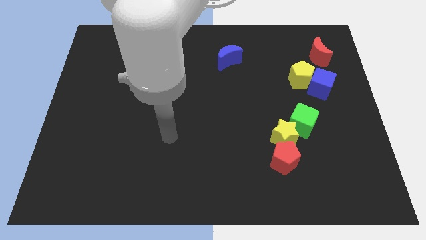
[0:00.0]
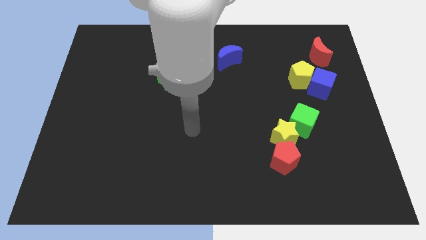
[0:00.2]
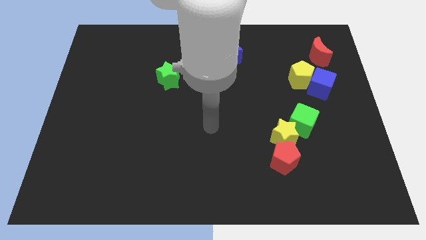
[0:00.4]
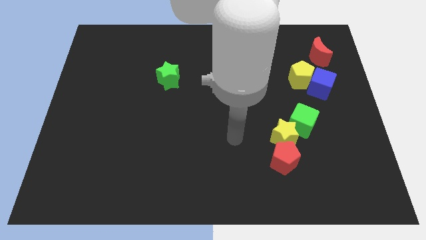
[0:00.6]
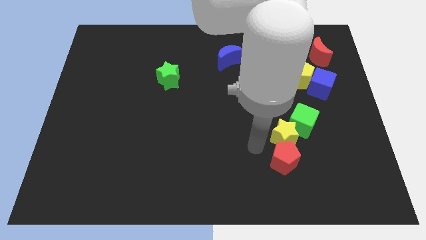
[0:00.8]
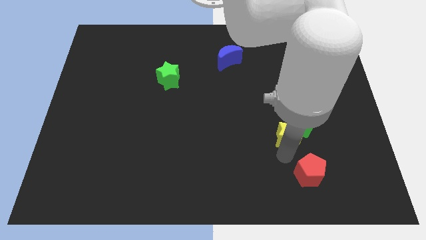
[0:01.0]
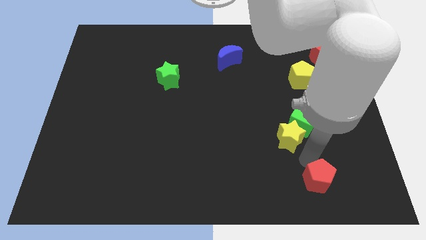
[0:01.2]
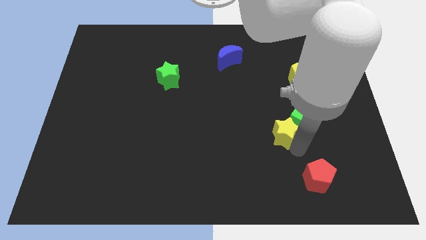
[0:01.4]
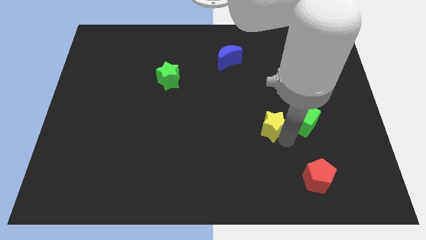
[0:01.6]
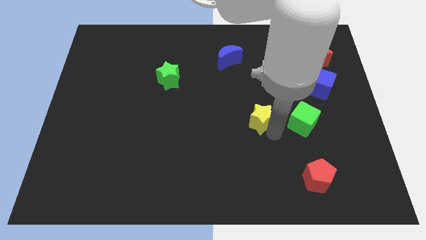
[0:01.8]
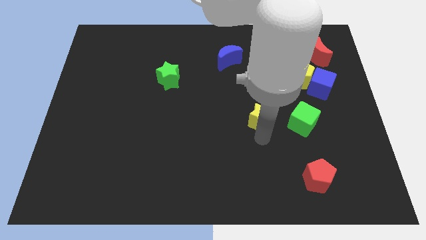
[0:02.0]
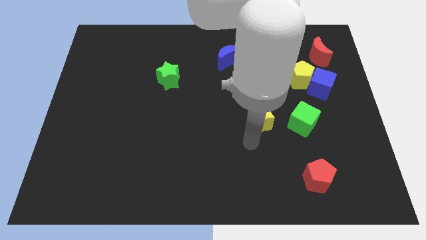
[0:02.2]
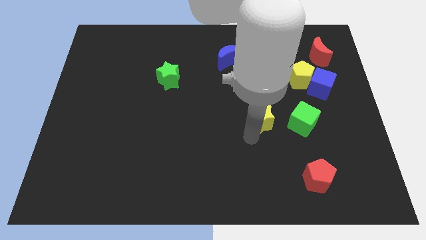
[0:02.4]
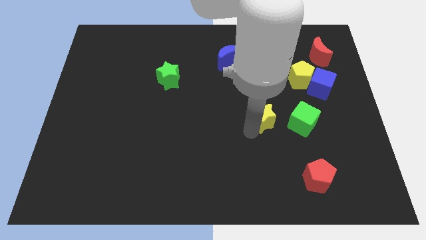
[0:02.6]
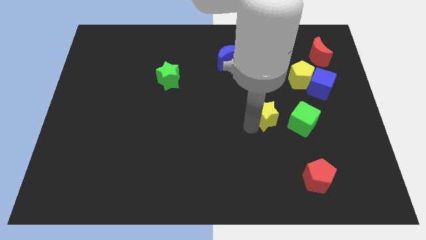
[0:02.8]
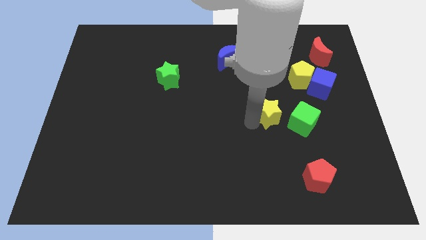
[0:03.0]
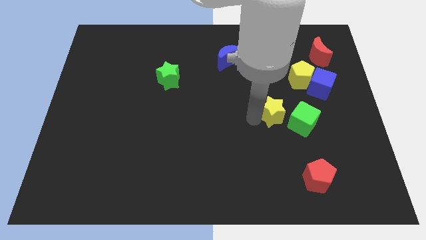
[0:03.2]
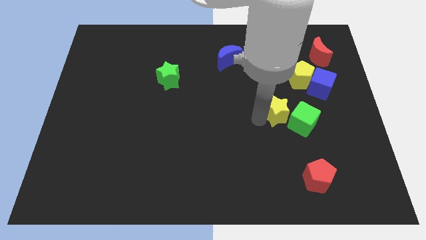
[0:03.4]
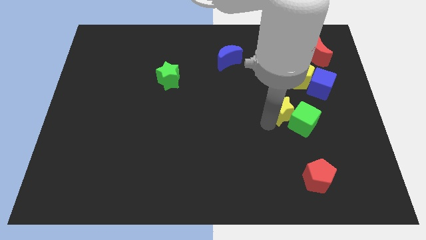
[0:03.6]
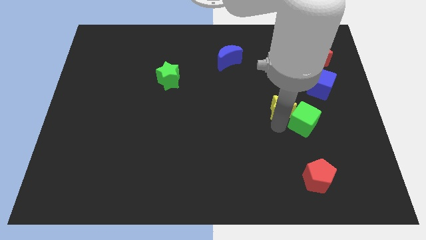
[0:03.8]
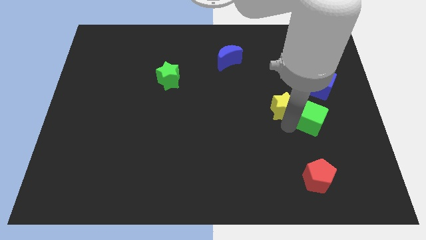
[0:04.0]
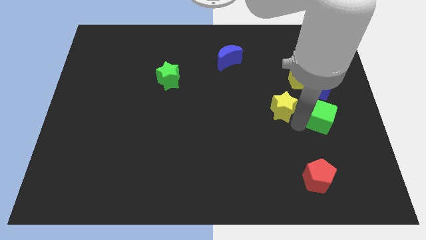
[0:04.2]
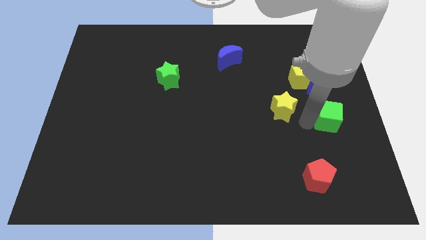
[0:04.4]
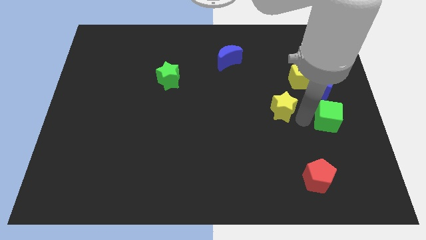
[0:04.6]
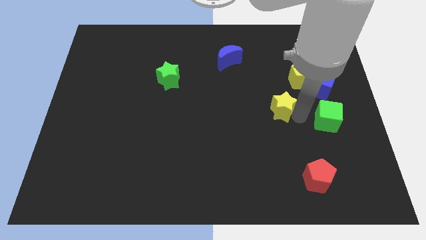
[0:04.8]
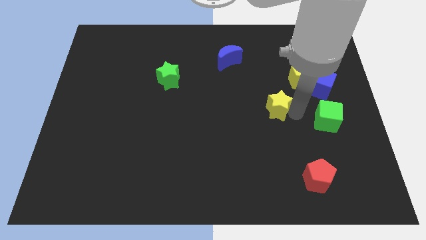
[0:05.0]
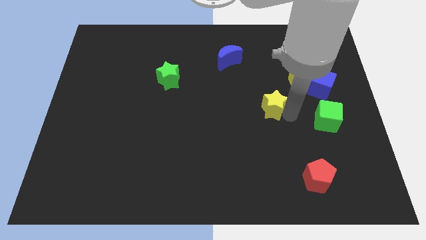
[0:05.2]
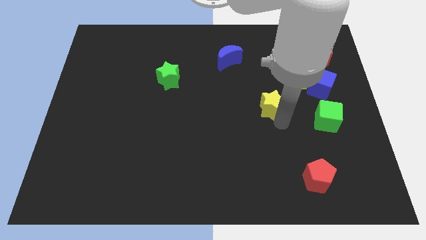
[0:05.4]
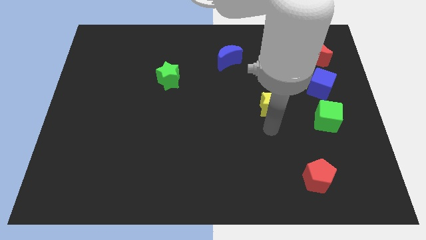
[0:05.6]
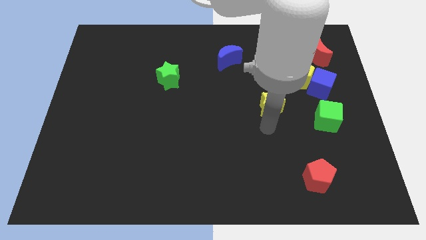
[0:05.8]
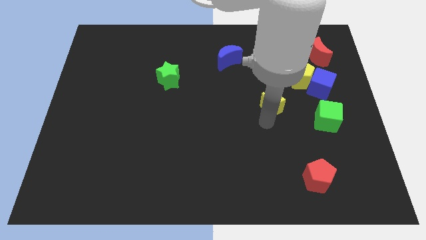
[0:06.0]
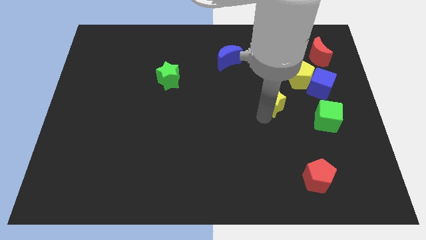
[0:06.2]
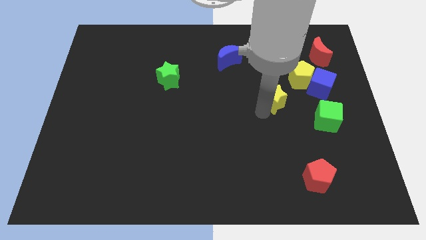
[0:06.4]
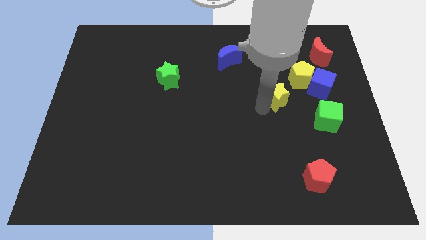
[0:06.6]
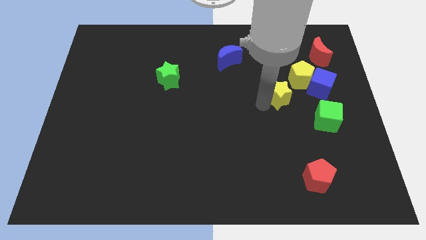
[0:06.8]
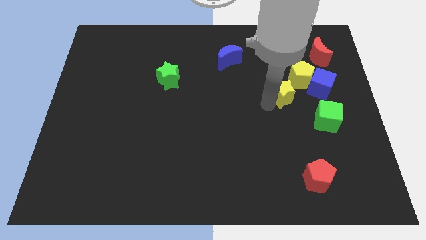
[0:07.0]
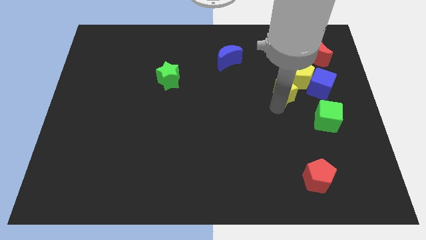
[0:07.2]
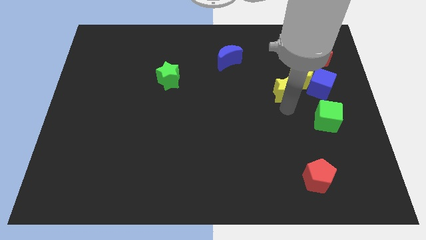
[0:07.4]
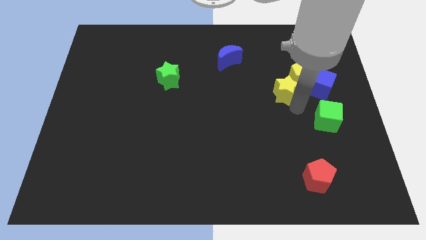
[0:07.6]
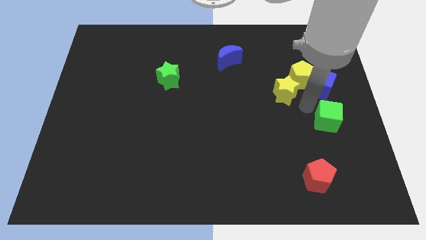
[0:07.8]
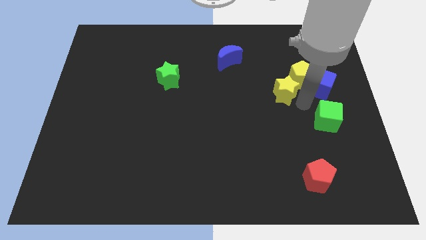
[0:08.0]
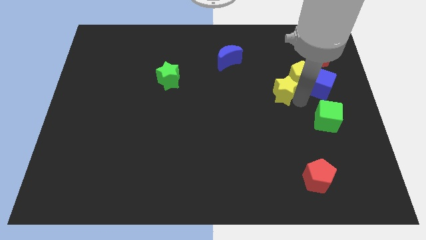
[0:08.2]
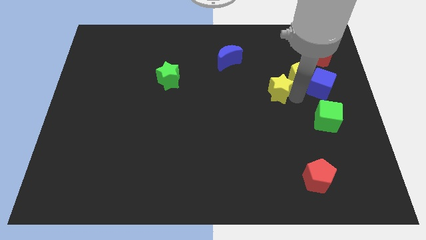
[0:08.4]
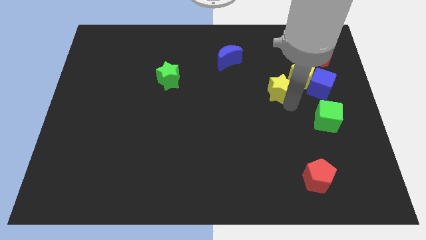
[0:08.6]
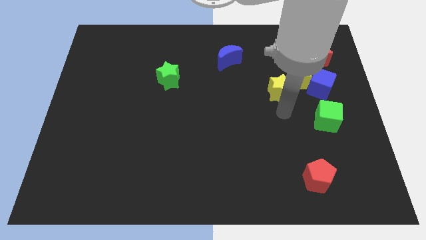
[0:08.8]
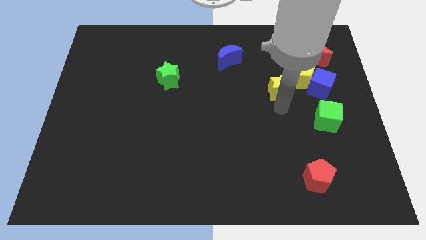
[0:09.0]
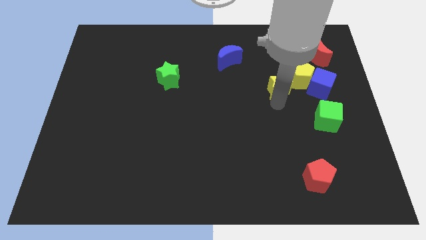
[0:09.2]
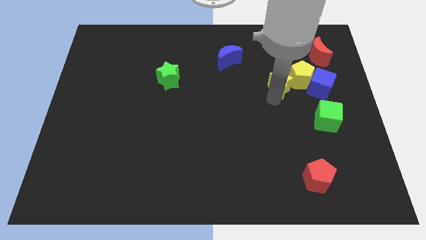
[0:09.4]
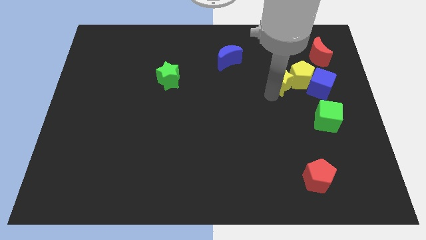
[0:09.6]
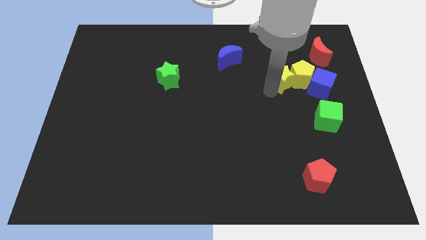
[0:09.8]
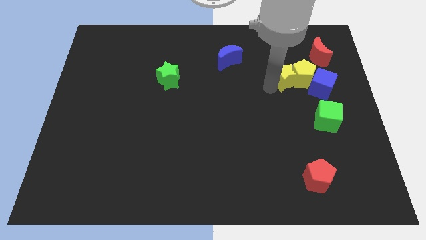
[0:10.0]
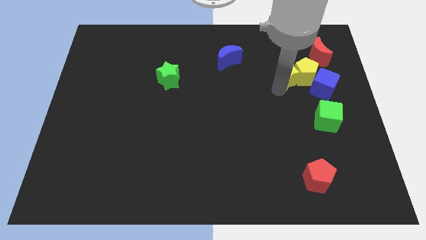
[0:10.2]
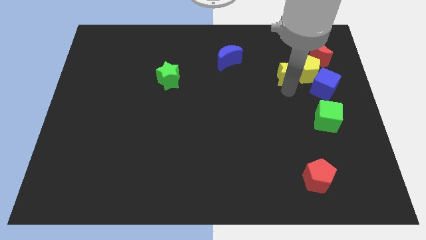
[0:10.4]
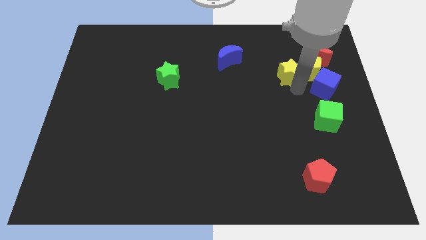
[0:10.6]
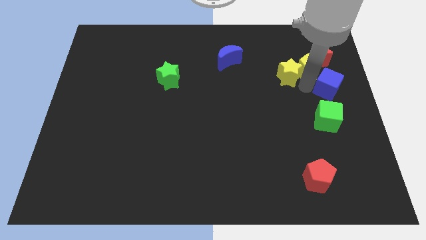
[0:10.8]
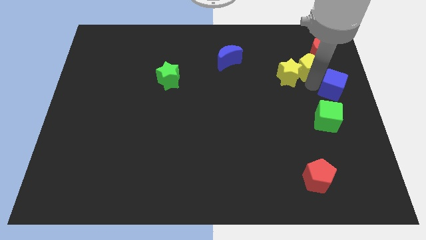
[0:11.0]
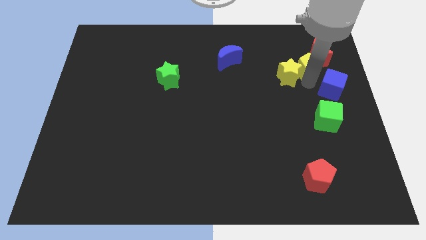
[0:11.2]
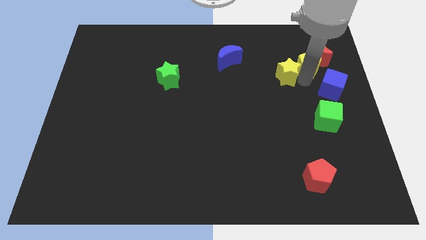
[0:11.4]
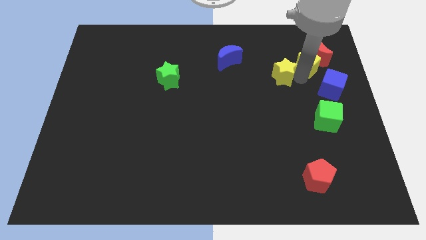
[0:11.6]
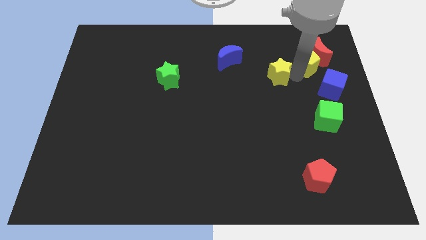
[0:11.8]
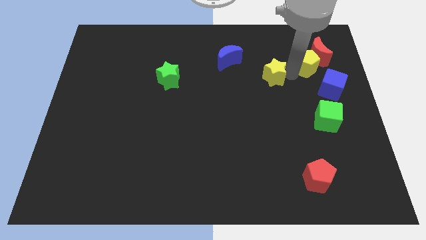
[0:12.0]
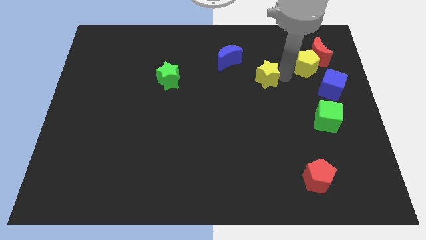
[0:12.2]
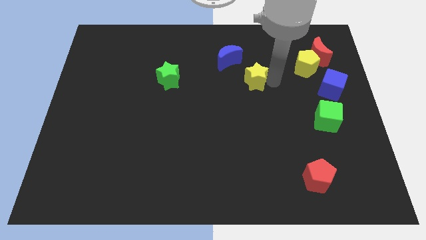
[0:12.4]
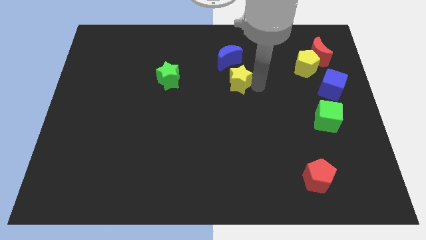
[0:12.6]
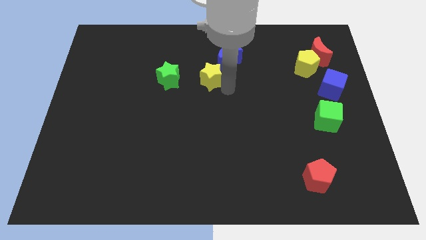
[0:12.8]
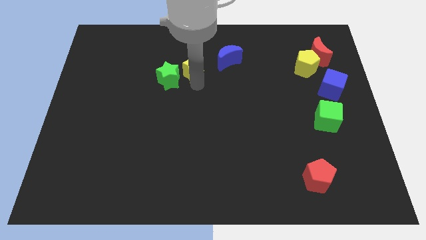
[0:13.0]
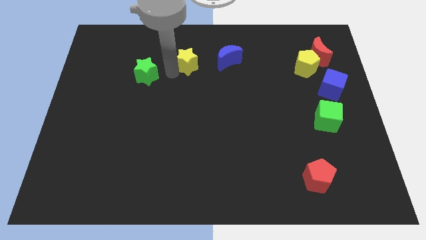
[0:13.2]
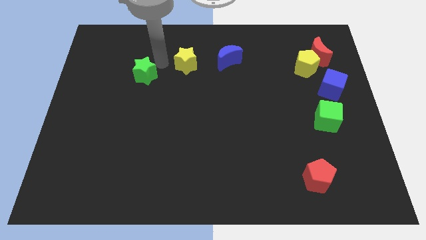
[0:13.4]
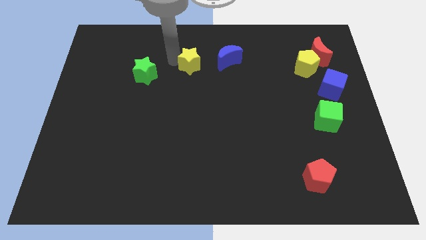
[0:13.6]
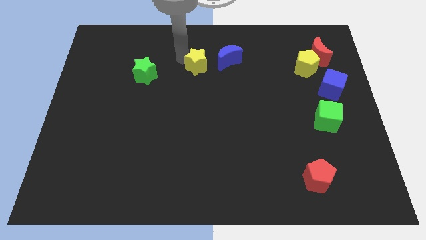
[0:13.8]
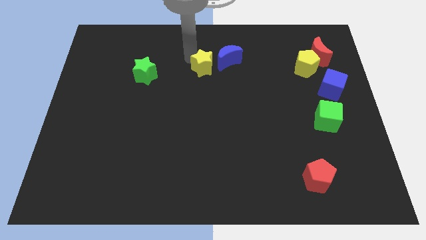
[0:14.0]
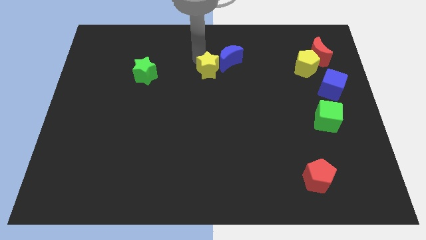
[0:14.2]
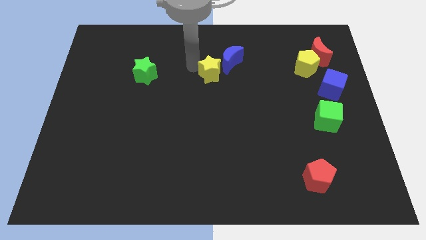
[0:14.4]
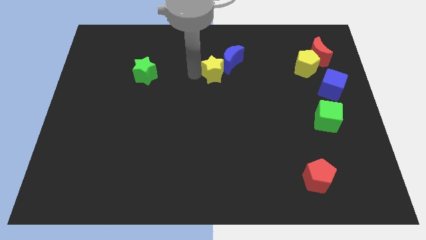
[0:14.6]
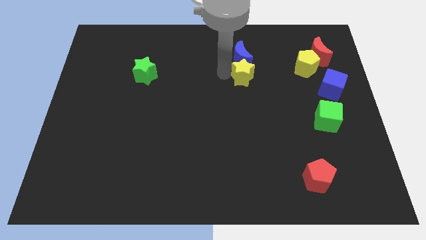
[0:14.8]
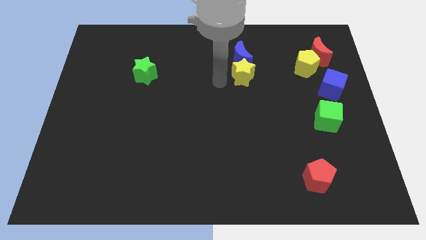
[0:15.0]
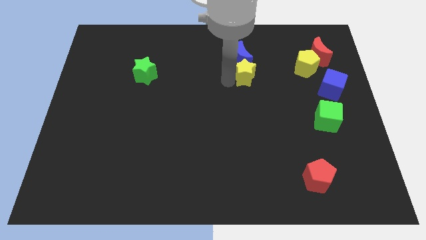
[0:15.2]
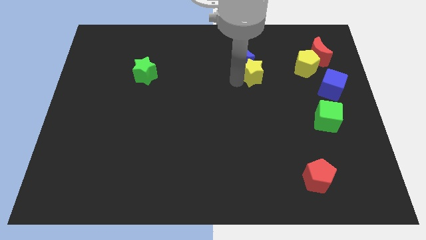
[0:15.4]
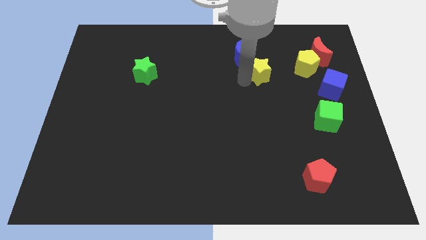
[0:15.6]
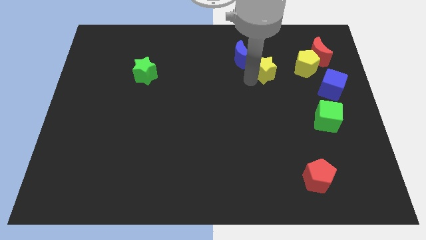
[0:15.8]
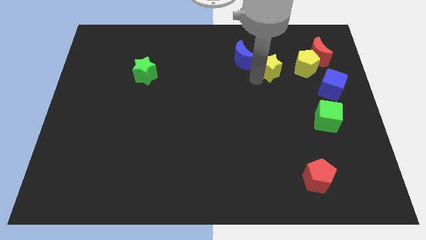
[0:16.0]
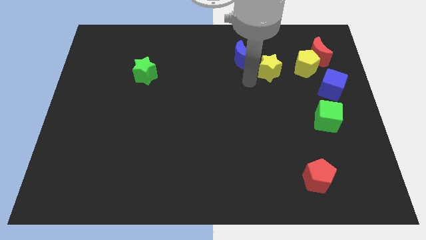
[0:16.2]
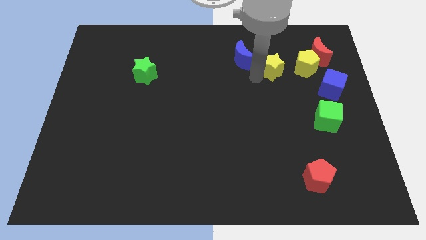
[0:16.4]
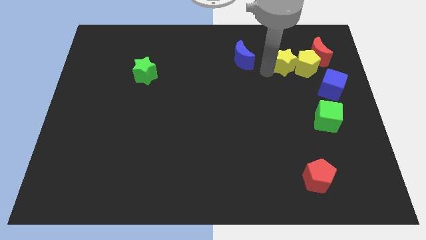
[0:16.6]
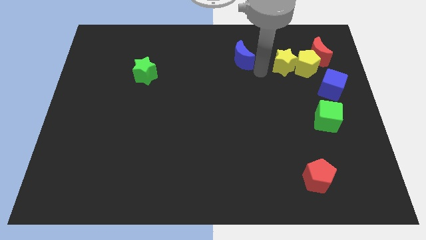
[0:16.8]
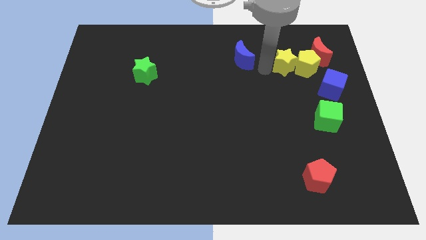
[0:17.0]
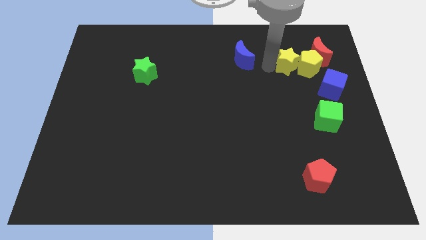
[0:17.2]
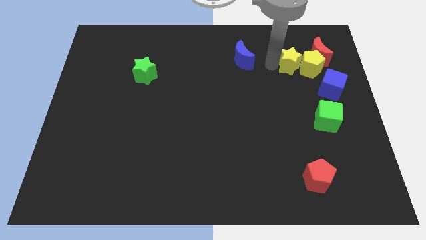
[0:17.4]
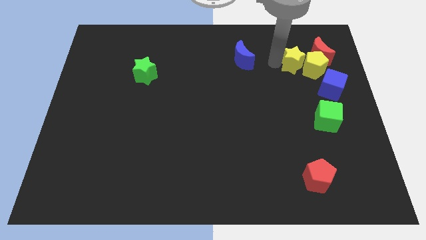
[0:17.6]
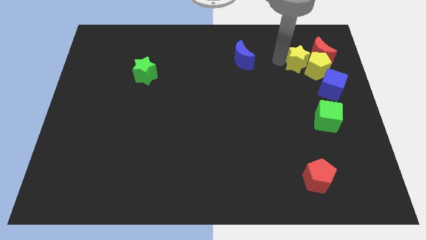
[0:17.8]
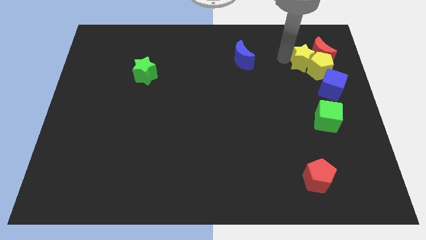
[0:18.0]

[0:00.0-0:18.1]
move the yellow star next to the red moon
